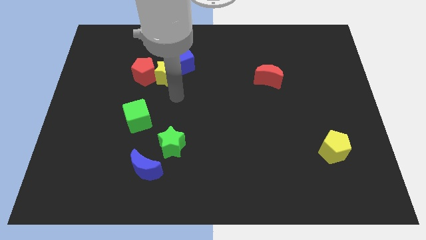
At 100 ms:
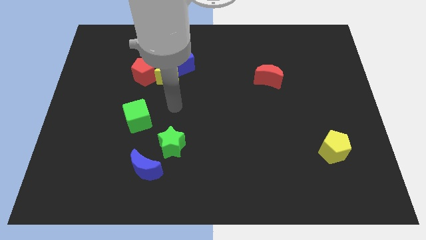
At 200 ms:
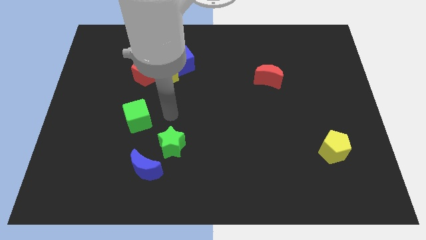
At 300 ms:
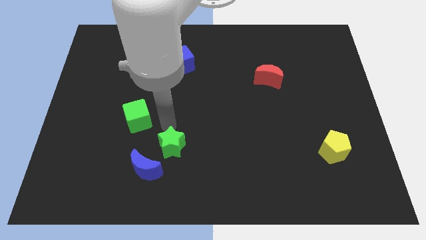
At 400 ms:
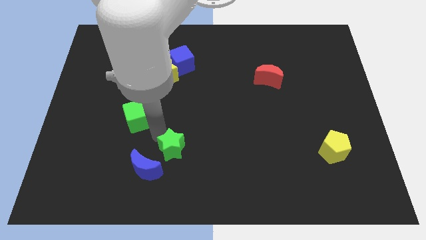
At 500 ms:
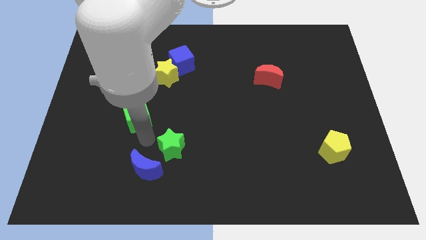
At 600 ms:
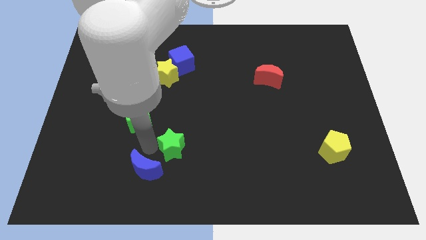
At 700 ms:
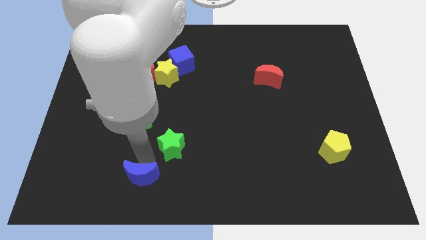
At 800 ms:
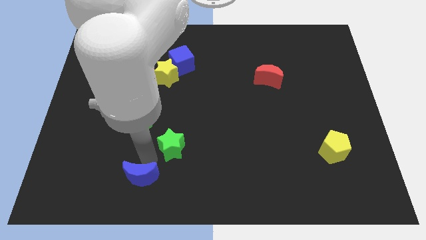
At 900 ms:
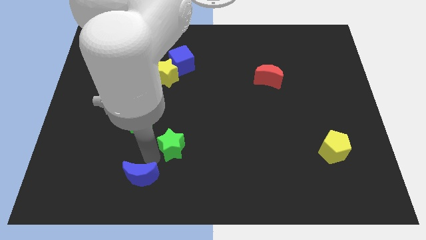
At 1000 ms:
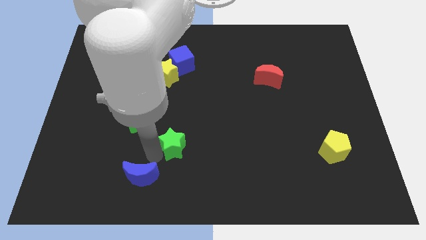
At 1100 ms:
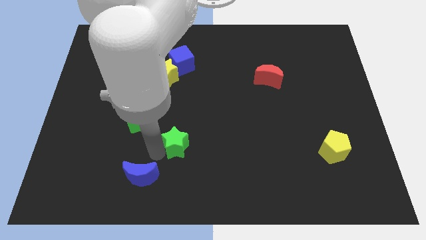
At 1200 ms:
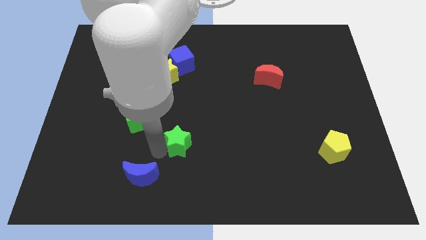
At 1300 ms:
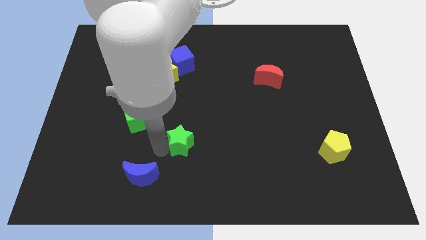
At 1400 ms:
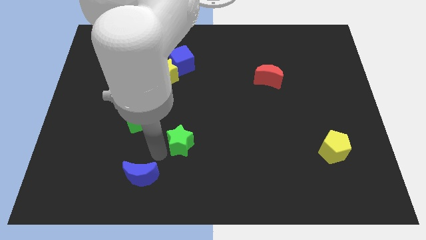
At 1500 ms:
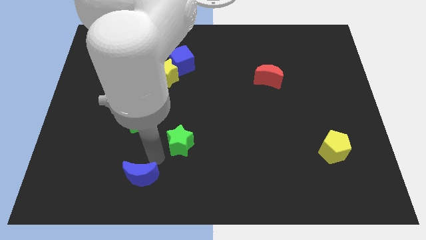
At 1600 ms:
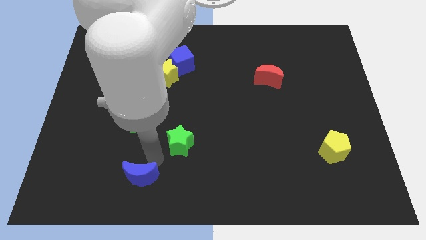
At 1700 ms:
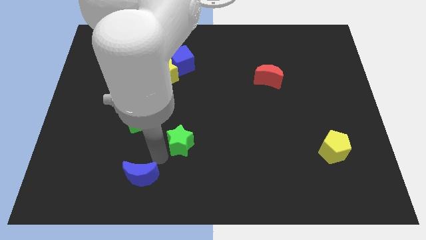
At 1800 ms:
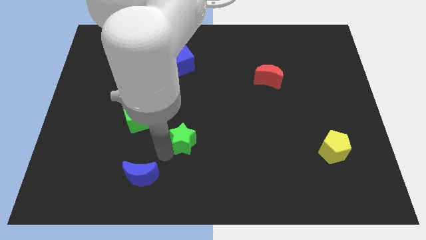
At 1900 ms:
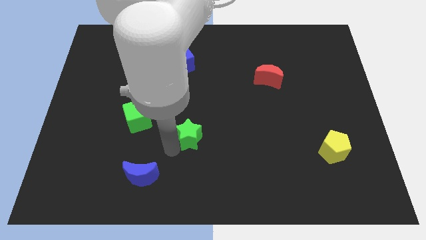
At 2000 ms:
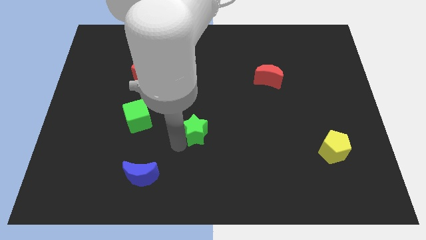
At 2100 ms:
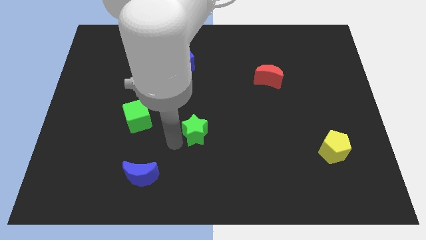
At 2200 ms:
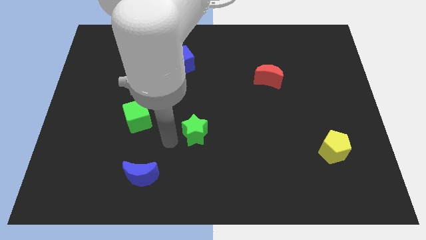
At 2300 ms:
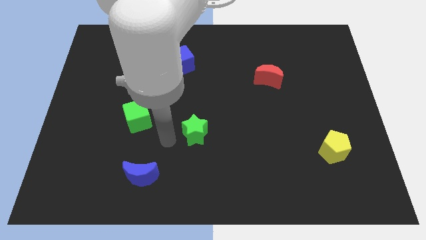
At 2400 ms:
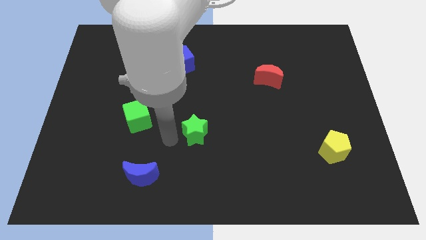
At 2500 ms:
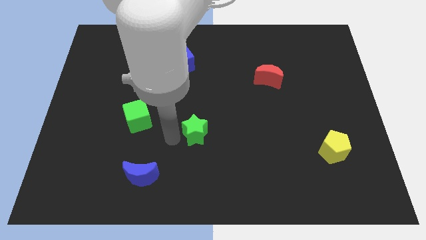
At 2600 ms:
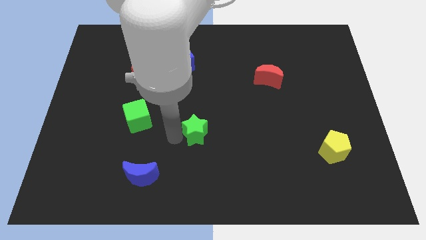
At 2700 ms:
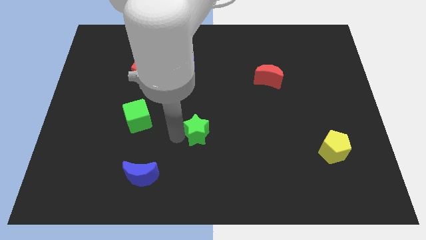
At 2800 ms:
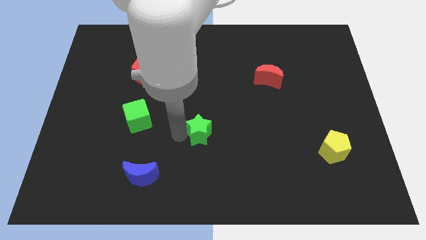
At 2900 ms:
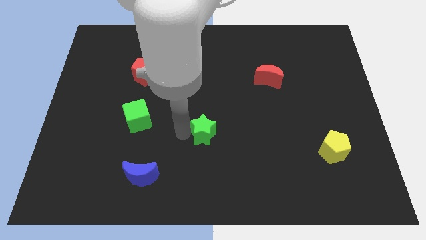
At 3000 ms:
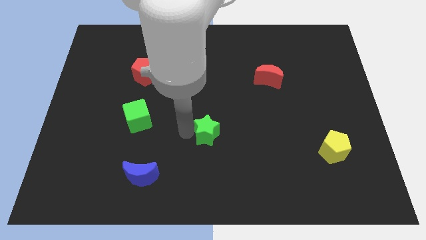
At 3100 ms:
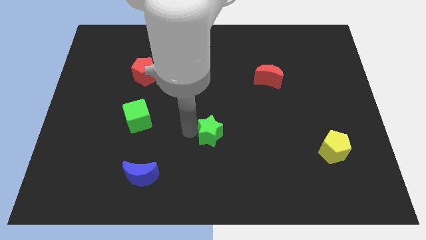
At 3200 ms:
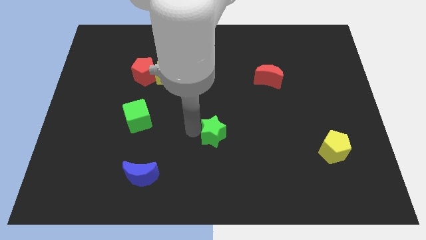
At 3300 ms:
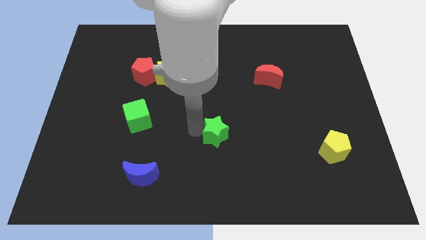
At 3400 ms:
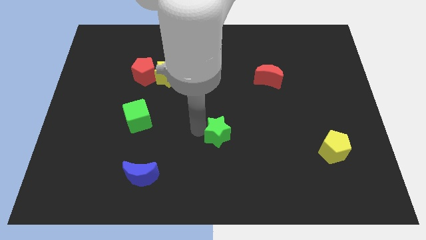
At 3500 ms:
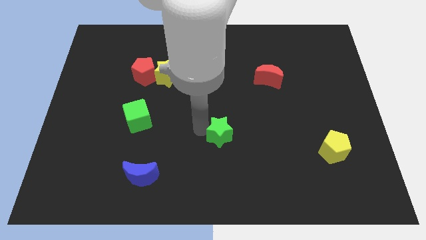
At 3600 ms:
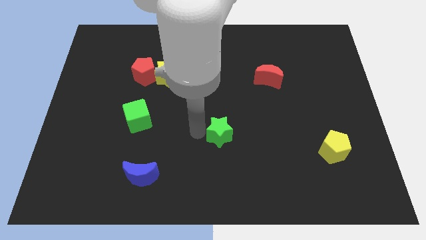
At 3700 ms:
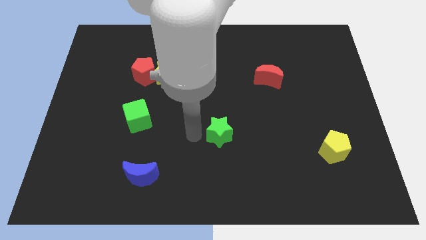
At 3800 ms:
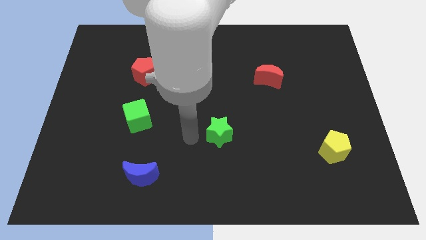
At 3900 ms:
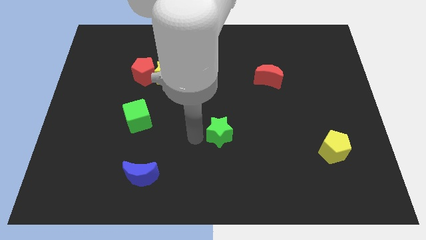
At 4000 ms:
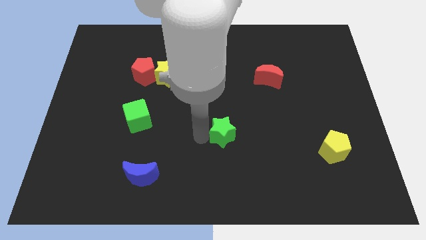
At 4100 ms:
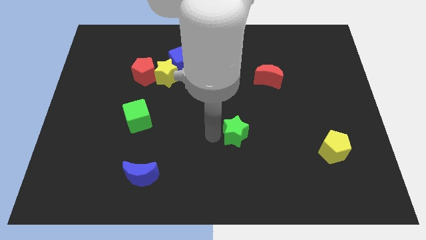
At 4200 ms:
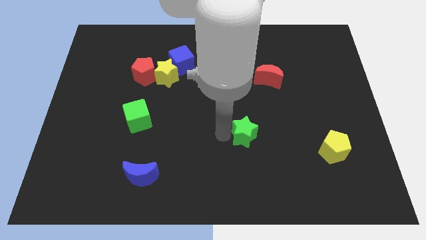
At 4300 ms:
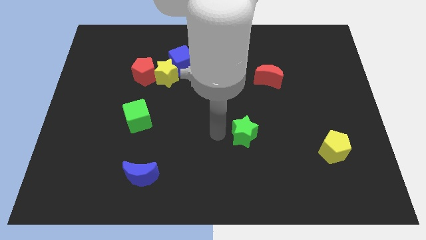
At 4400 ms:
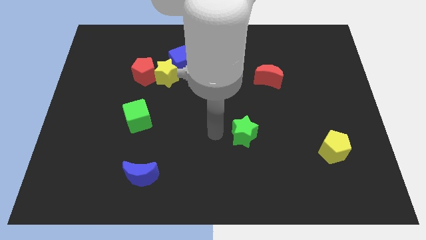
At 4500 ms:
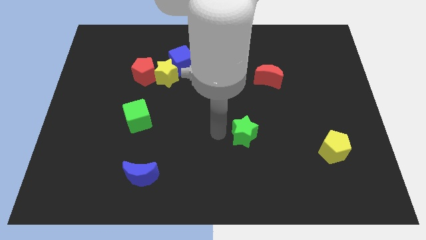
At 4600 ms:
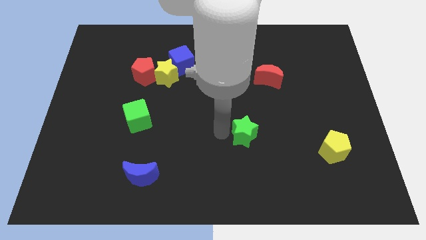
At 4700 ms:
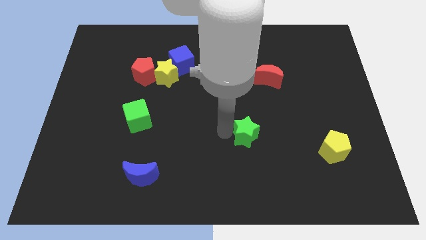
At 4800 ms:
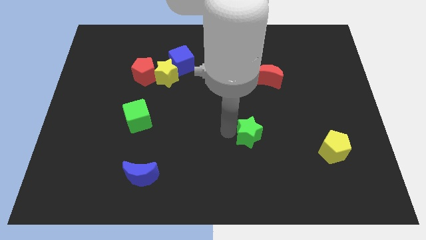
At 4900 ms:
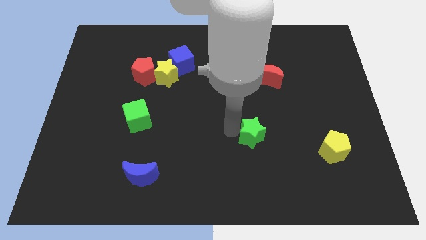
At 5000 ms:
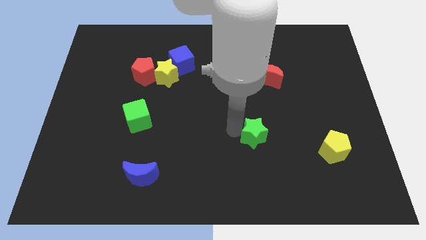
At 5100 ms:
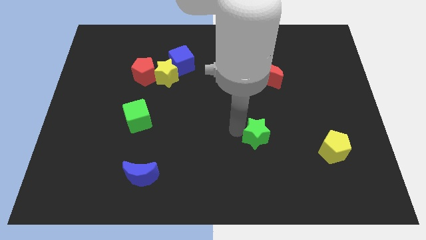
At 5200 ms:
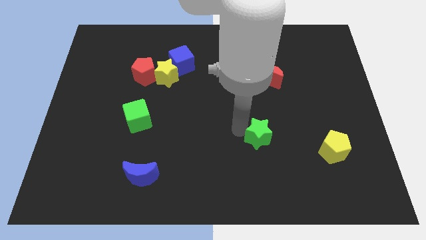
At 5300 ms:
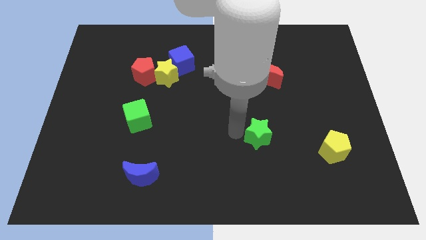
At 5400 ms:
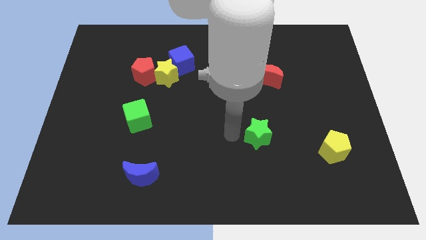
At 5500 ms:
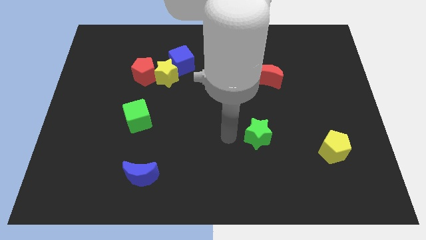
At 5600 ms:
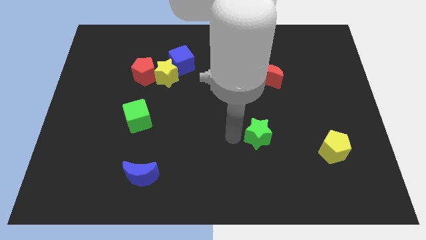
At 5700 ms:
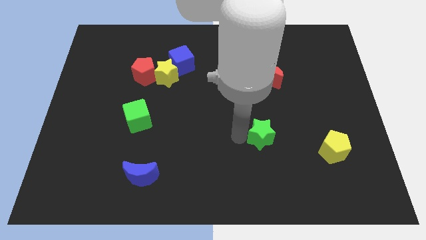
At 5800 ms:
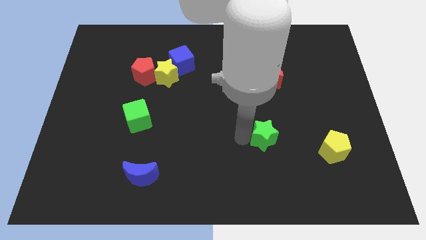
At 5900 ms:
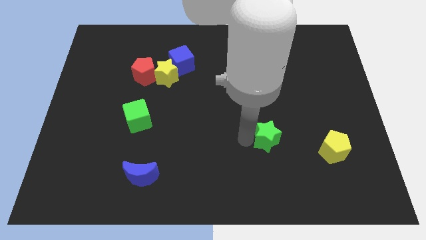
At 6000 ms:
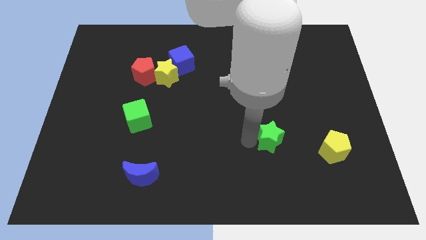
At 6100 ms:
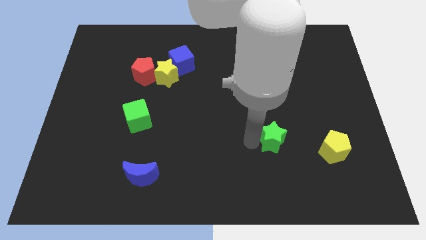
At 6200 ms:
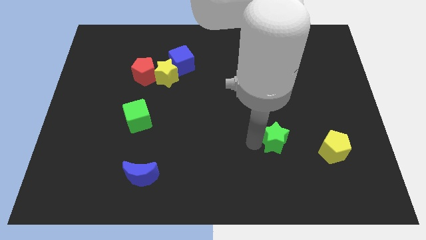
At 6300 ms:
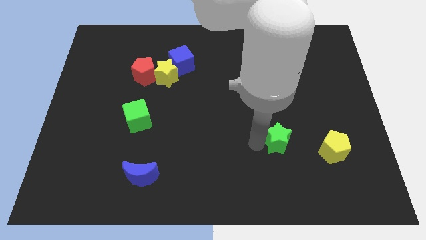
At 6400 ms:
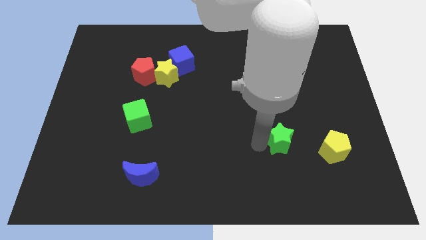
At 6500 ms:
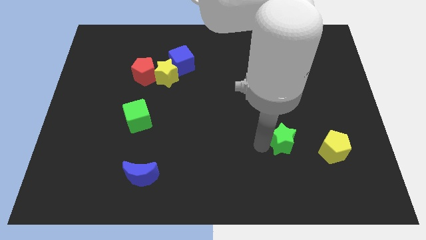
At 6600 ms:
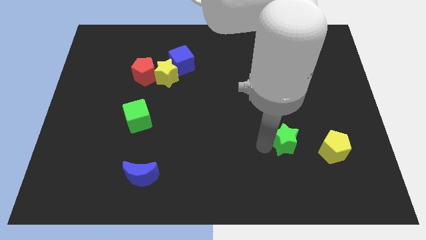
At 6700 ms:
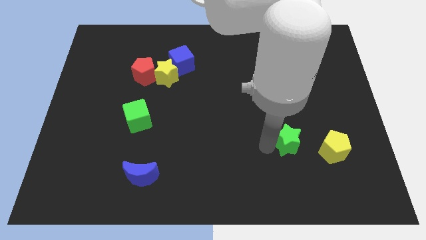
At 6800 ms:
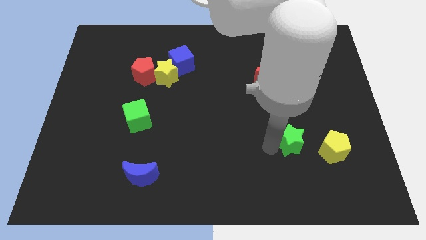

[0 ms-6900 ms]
put the green star to the top left of the yellow pentagon

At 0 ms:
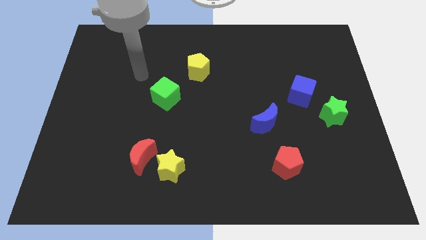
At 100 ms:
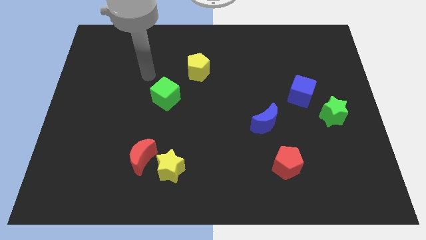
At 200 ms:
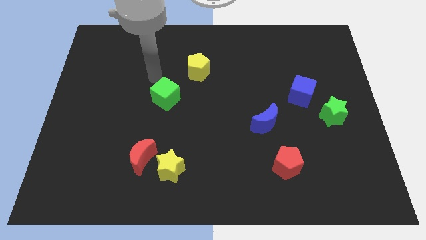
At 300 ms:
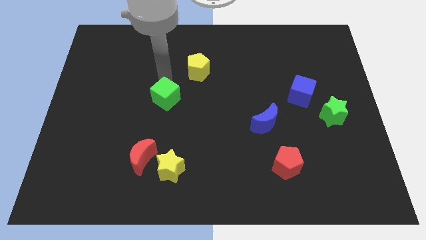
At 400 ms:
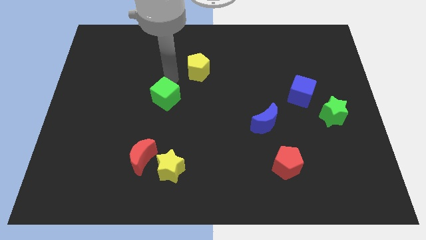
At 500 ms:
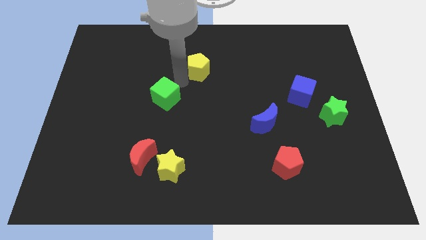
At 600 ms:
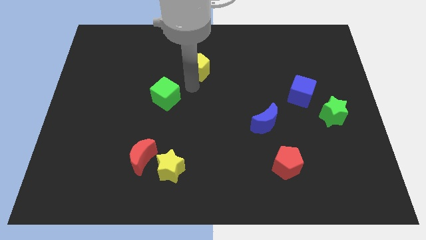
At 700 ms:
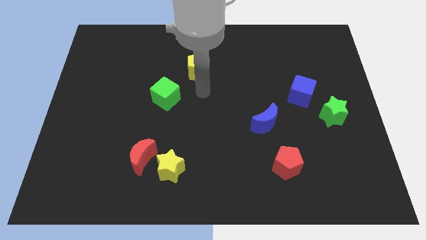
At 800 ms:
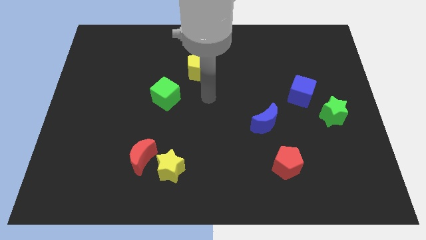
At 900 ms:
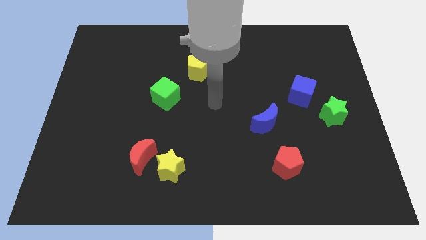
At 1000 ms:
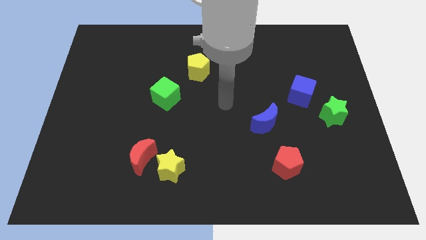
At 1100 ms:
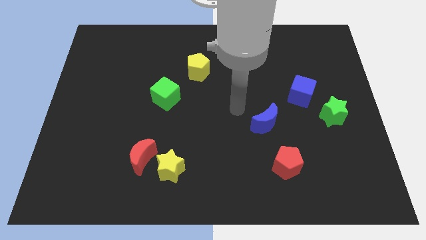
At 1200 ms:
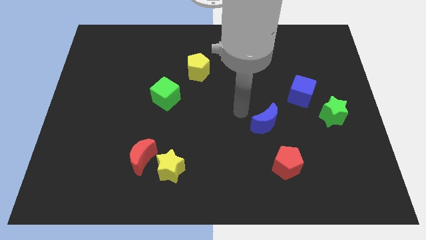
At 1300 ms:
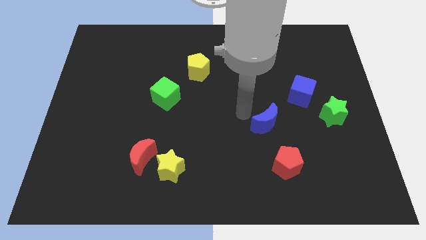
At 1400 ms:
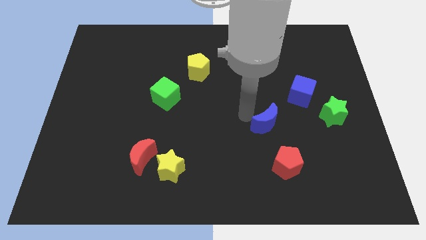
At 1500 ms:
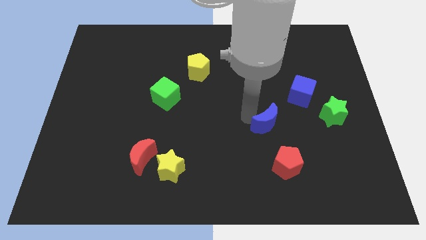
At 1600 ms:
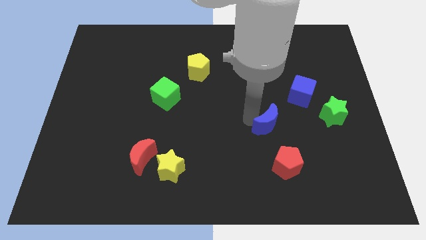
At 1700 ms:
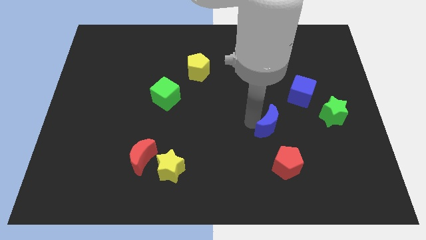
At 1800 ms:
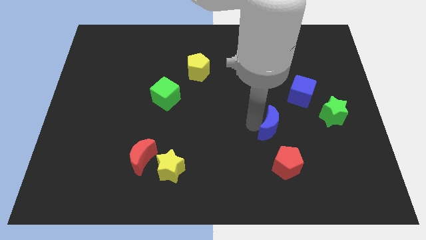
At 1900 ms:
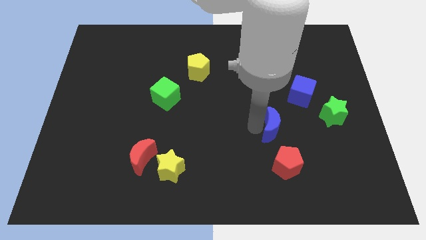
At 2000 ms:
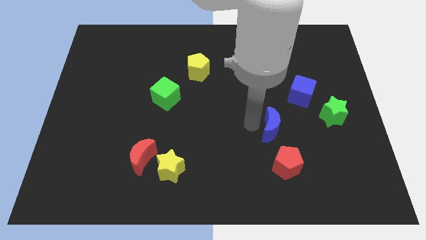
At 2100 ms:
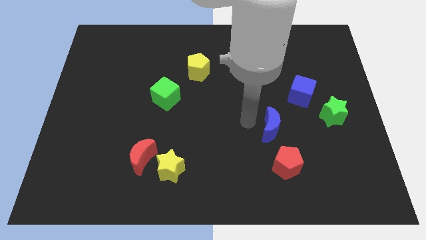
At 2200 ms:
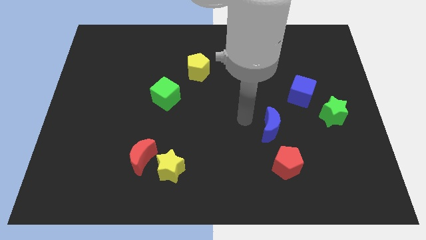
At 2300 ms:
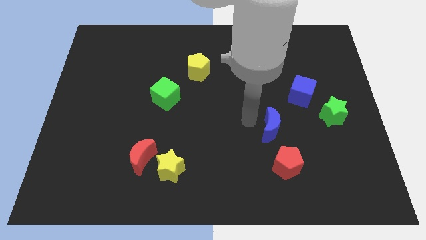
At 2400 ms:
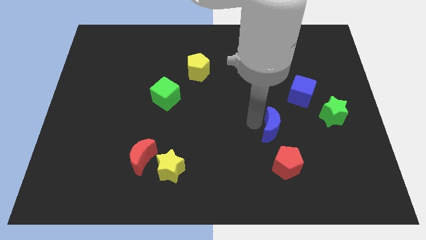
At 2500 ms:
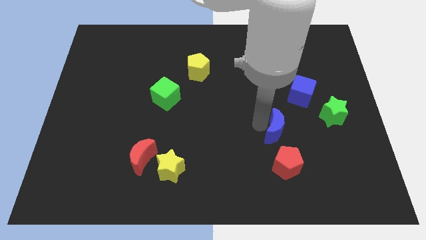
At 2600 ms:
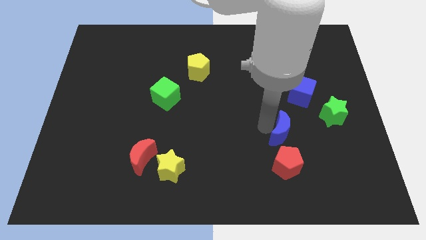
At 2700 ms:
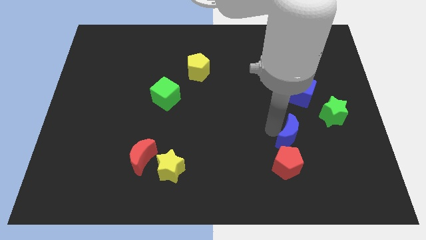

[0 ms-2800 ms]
push the blue moon to the top right of the red pentagon
